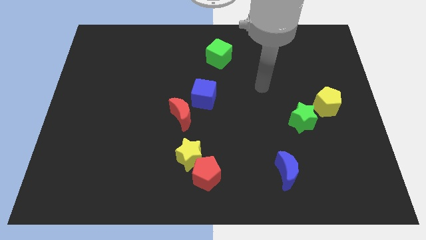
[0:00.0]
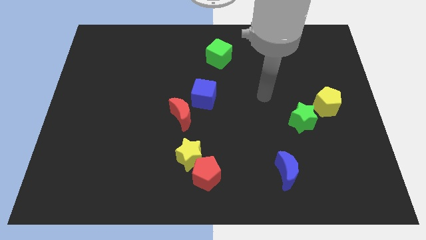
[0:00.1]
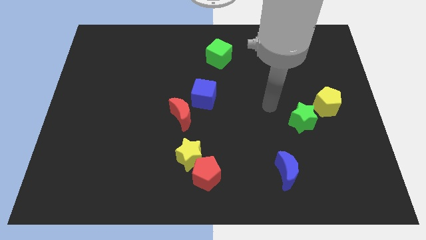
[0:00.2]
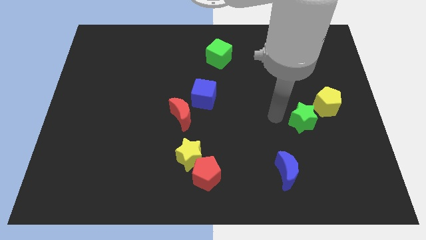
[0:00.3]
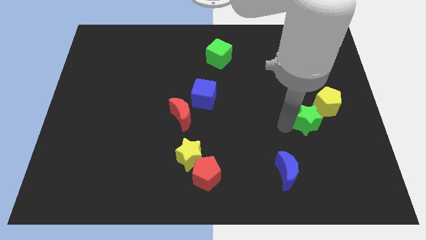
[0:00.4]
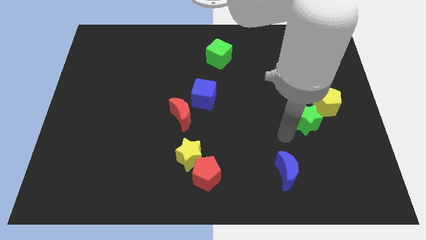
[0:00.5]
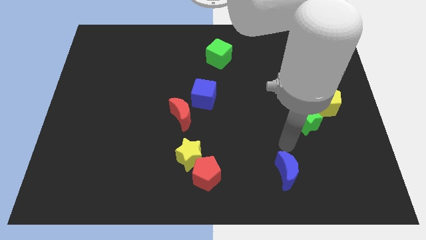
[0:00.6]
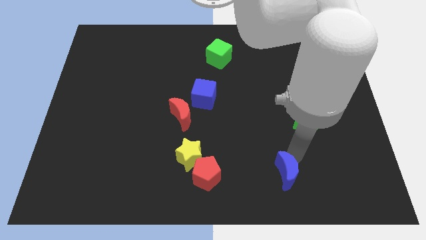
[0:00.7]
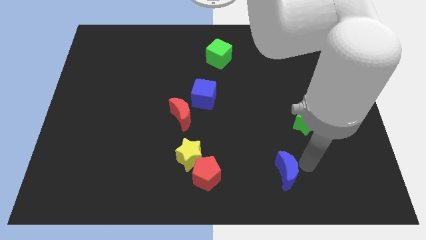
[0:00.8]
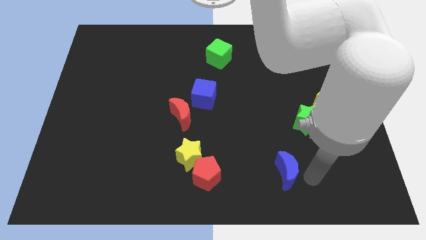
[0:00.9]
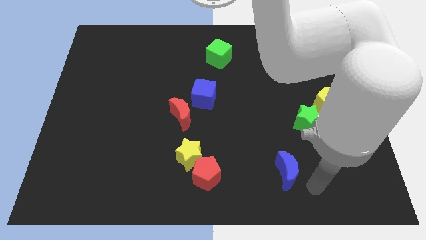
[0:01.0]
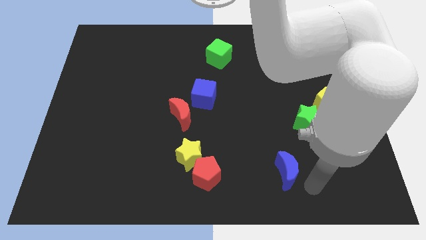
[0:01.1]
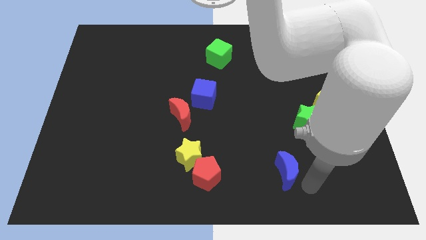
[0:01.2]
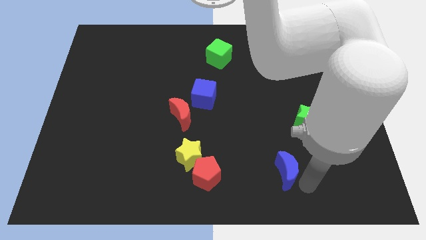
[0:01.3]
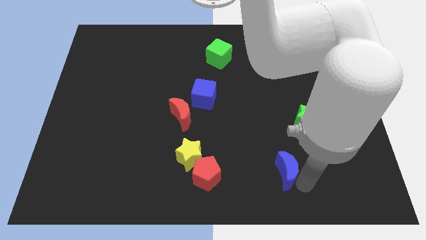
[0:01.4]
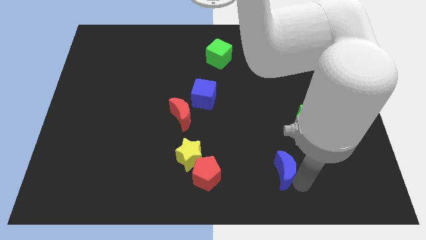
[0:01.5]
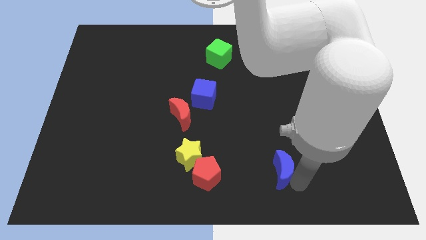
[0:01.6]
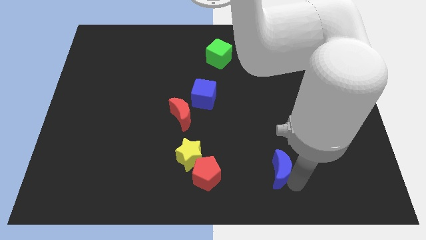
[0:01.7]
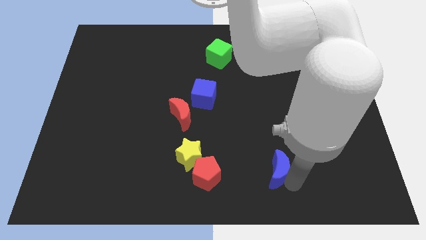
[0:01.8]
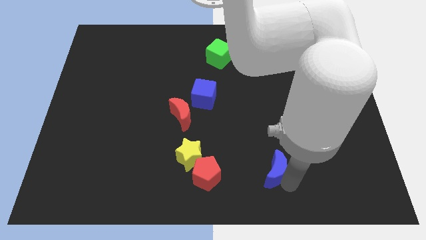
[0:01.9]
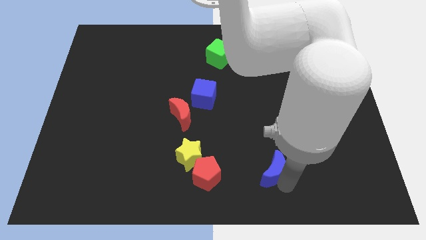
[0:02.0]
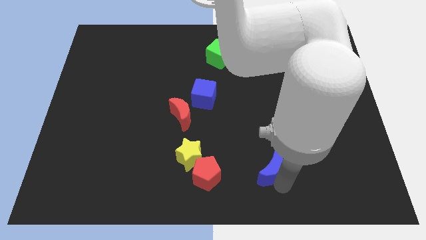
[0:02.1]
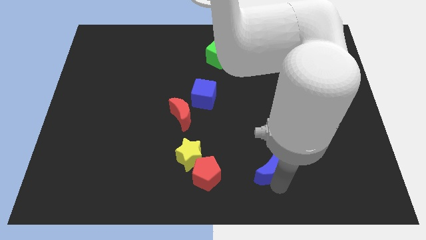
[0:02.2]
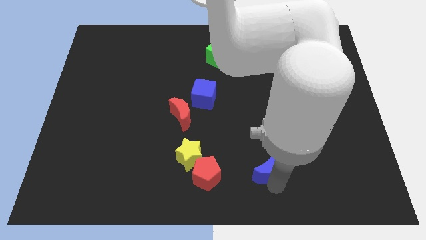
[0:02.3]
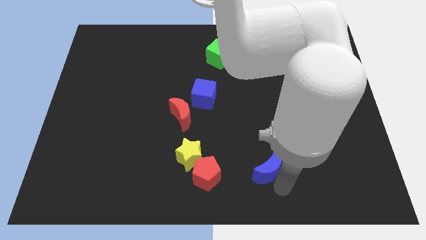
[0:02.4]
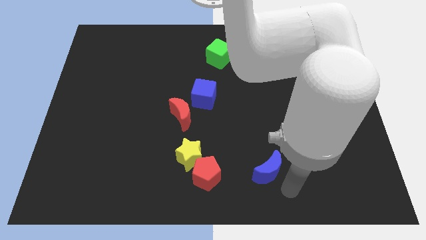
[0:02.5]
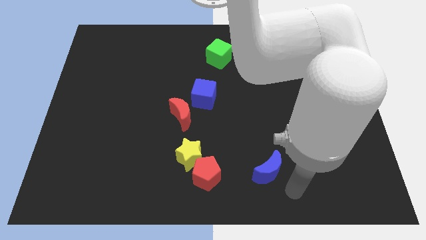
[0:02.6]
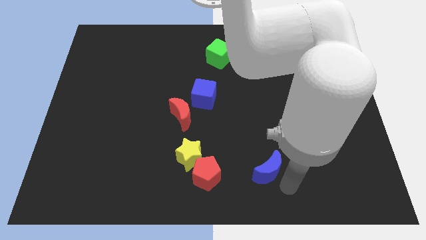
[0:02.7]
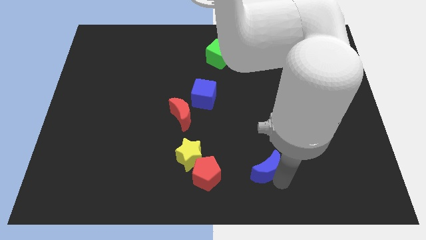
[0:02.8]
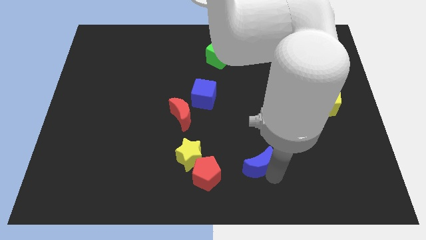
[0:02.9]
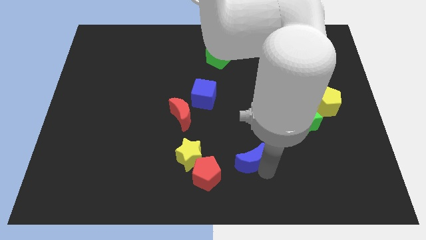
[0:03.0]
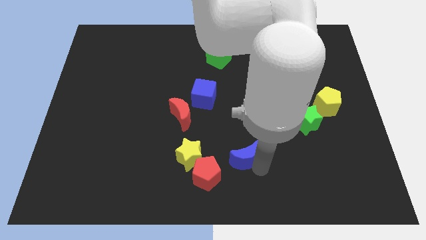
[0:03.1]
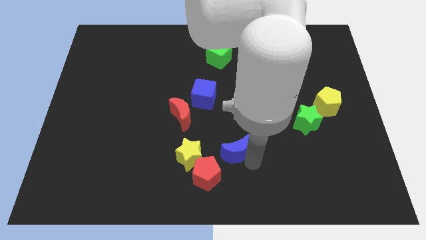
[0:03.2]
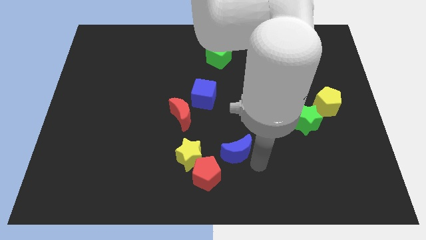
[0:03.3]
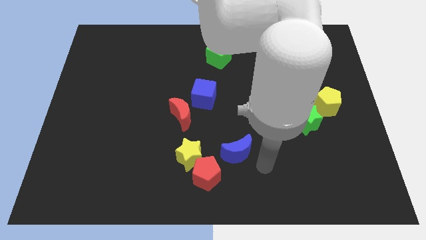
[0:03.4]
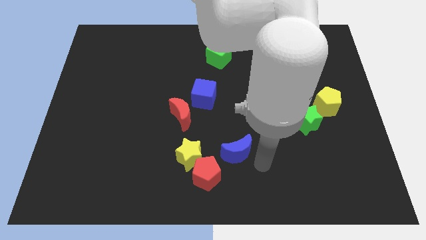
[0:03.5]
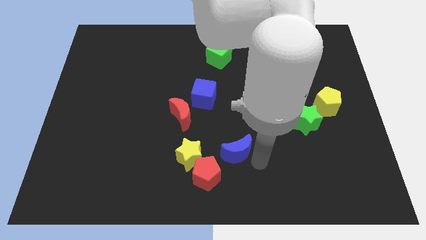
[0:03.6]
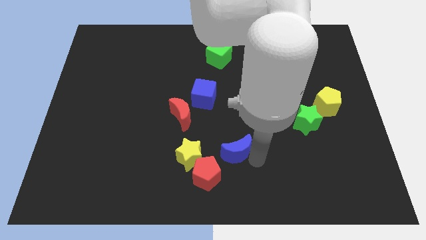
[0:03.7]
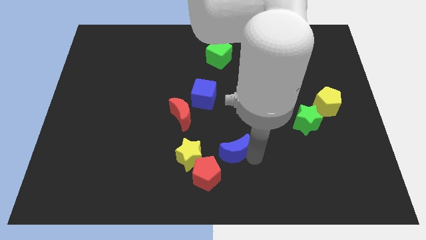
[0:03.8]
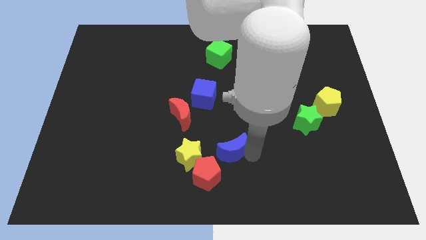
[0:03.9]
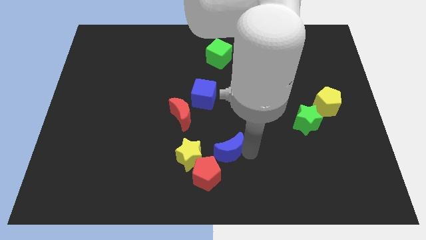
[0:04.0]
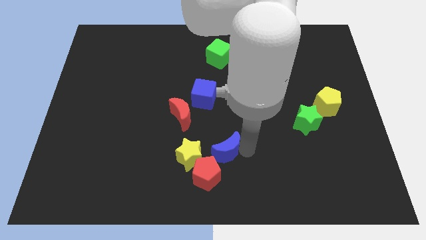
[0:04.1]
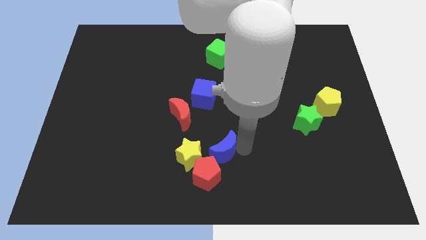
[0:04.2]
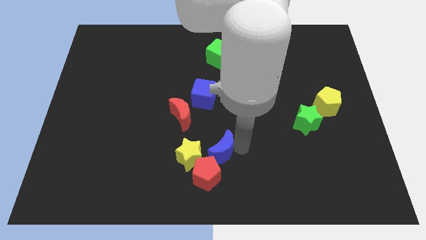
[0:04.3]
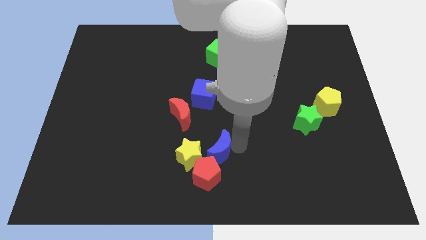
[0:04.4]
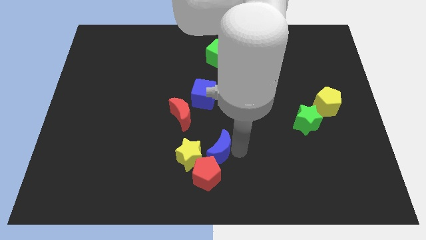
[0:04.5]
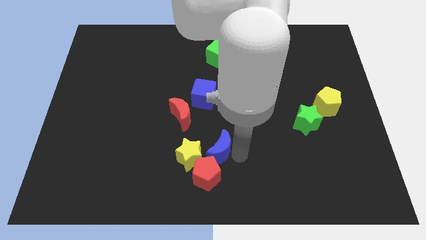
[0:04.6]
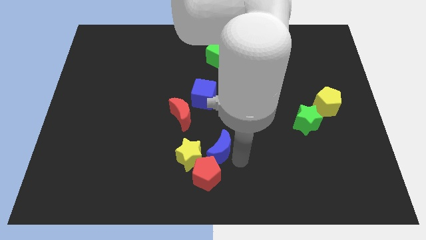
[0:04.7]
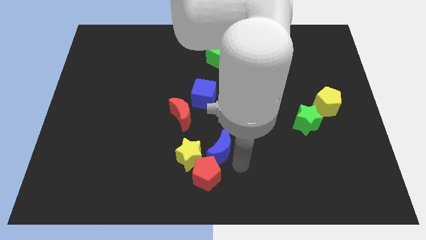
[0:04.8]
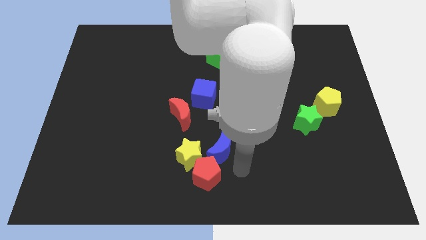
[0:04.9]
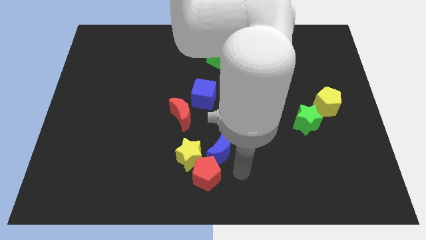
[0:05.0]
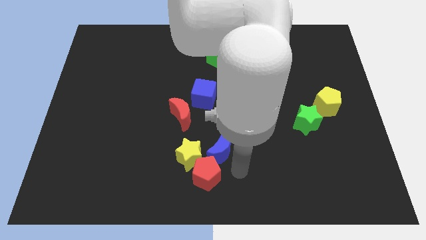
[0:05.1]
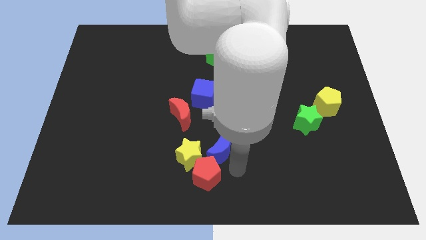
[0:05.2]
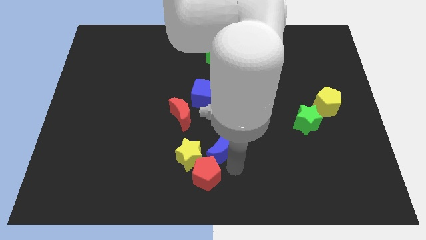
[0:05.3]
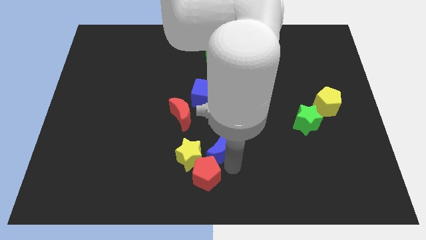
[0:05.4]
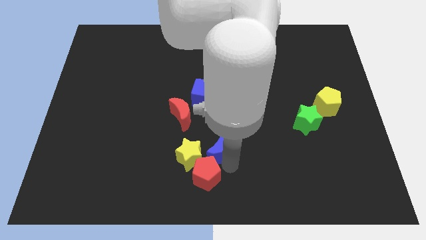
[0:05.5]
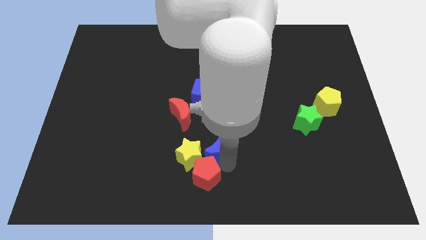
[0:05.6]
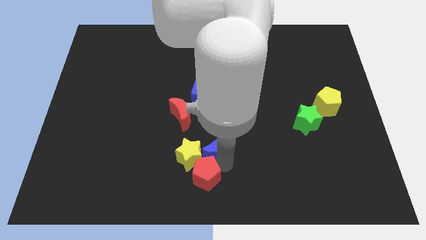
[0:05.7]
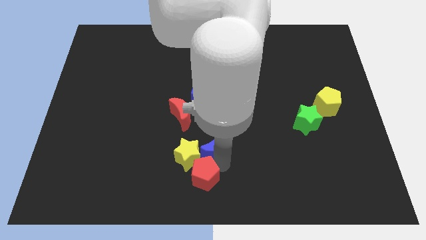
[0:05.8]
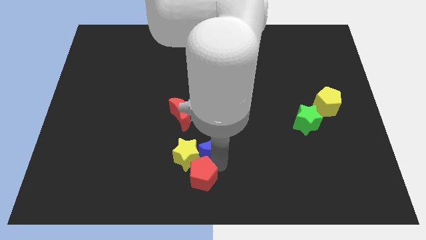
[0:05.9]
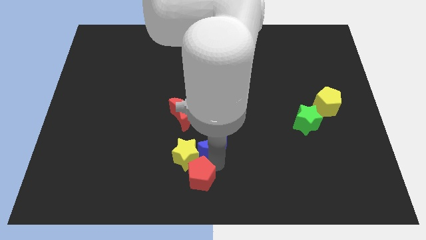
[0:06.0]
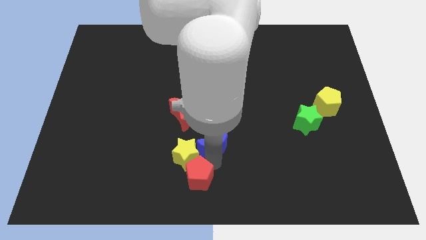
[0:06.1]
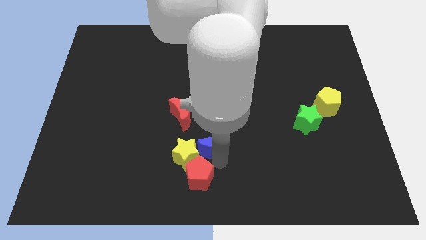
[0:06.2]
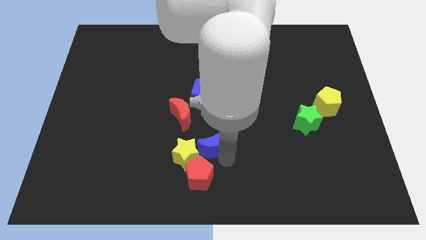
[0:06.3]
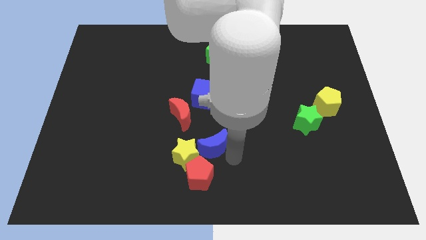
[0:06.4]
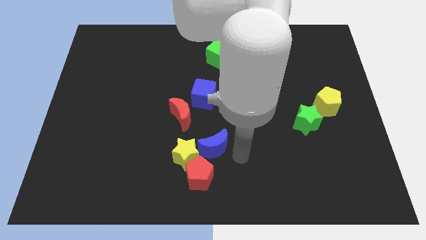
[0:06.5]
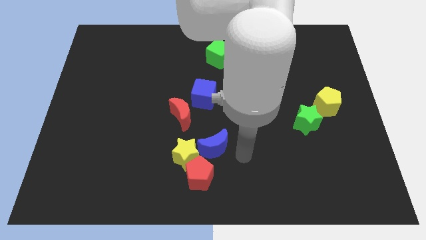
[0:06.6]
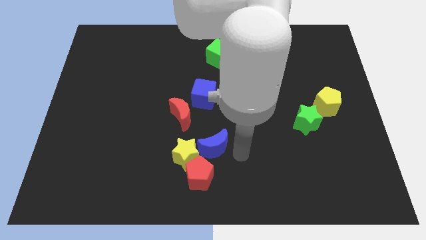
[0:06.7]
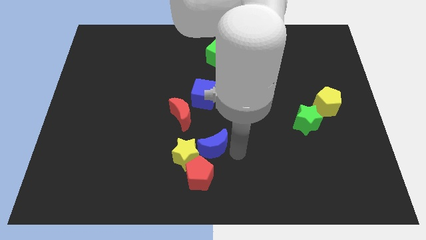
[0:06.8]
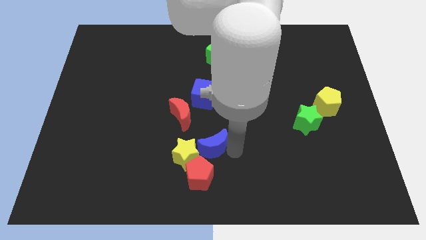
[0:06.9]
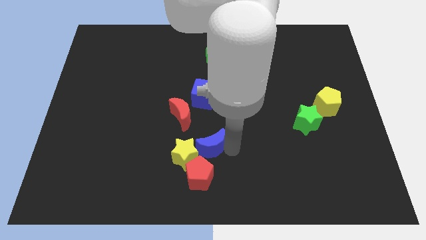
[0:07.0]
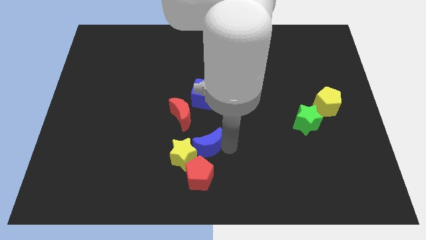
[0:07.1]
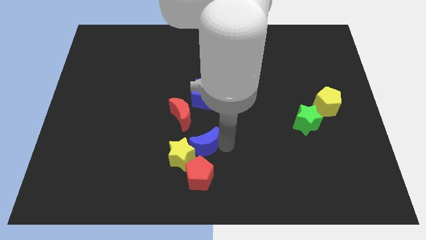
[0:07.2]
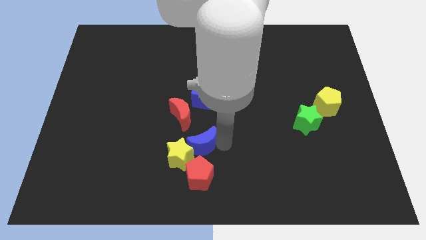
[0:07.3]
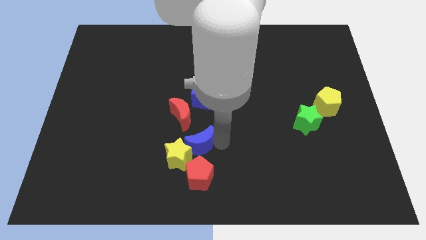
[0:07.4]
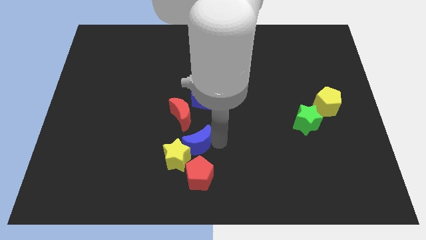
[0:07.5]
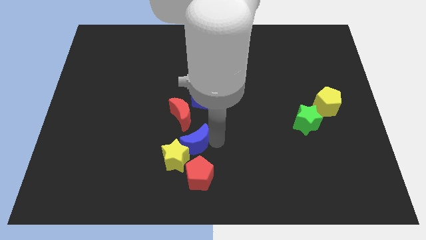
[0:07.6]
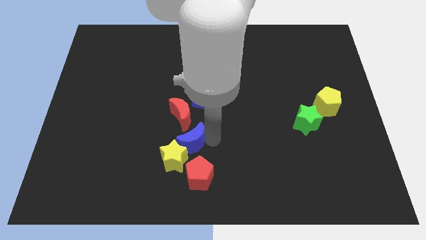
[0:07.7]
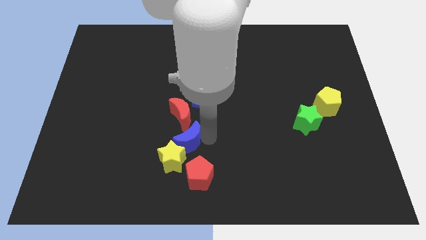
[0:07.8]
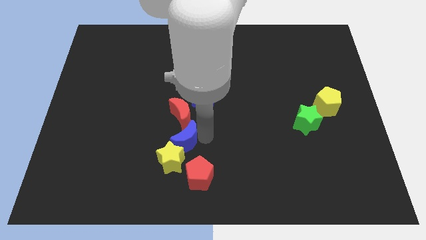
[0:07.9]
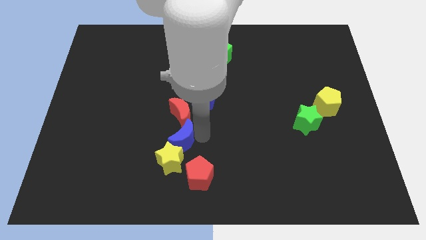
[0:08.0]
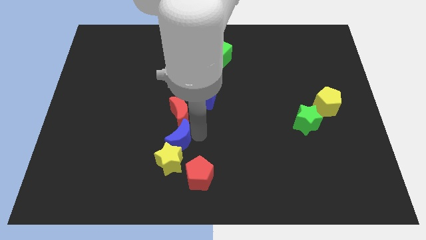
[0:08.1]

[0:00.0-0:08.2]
slide the blue moon to the left

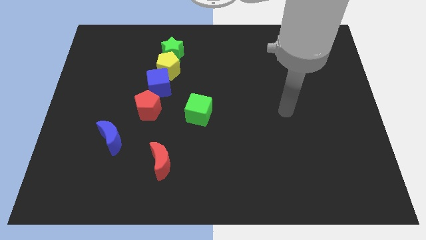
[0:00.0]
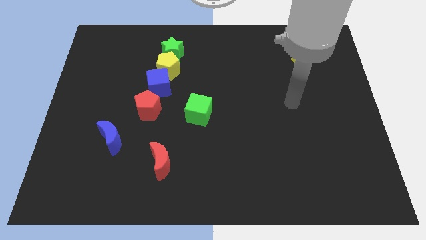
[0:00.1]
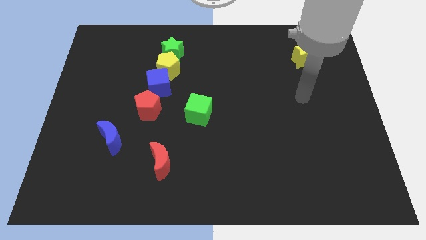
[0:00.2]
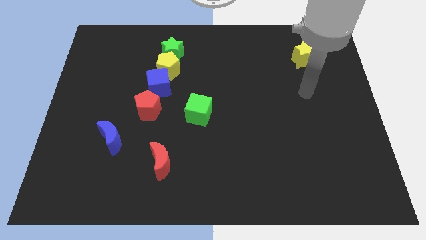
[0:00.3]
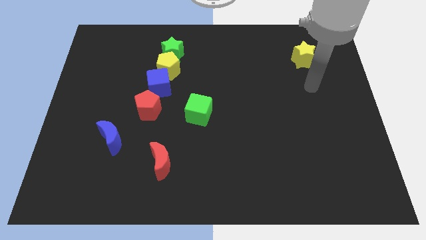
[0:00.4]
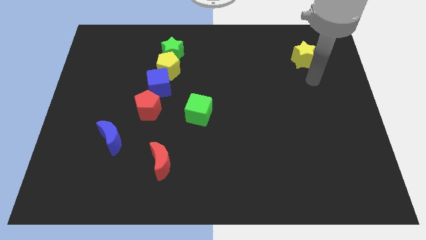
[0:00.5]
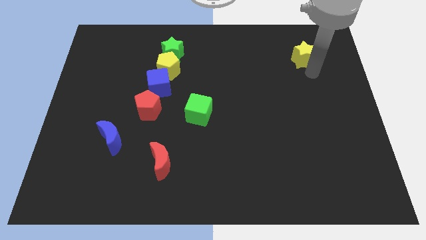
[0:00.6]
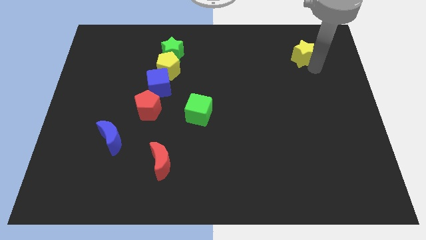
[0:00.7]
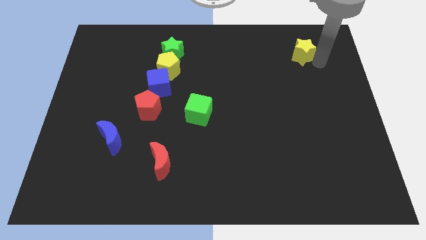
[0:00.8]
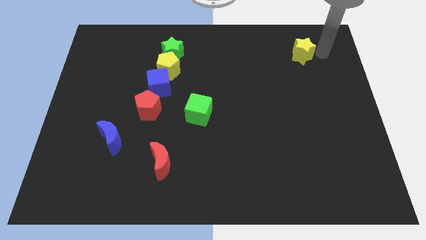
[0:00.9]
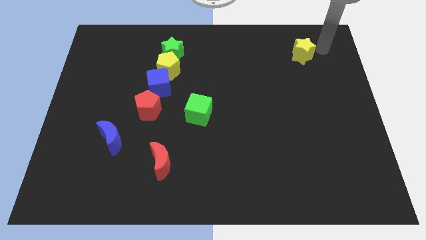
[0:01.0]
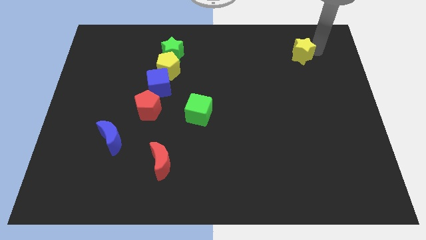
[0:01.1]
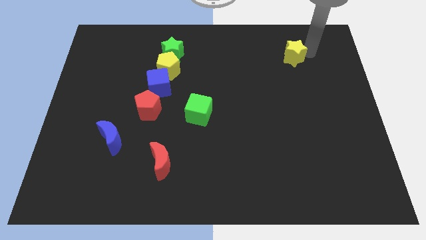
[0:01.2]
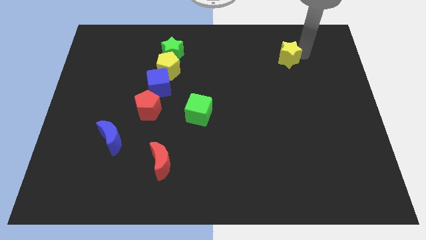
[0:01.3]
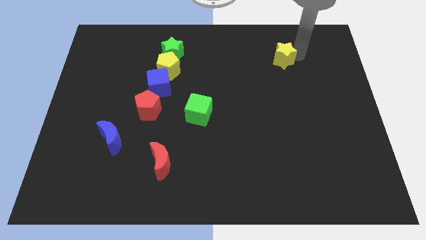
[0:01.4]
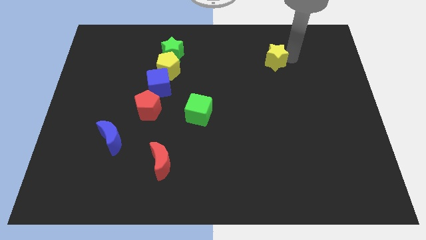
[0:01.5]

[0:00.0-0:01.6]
slightly move the yellow star left
